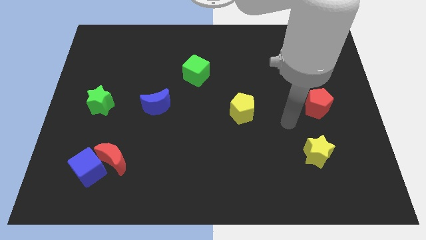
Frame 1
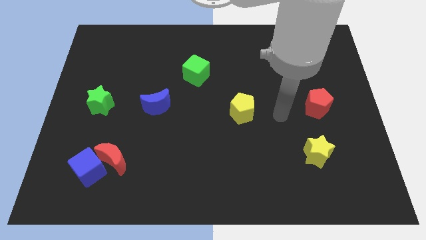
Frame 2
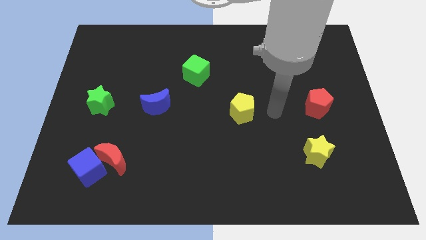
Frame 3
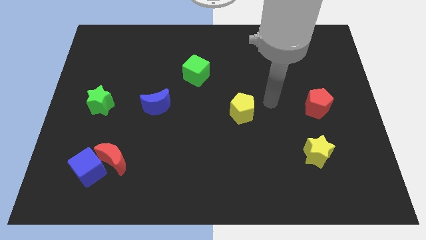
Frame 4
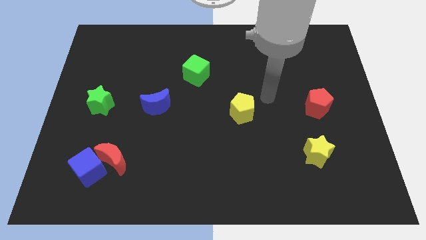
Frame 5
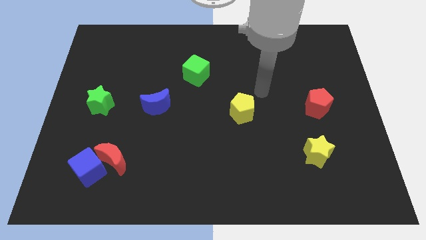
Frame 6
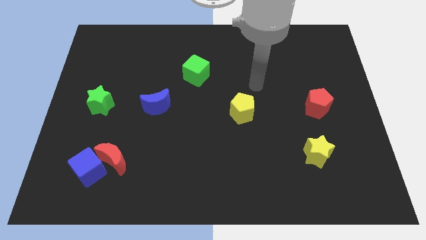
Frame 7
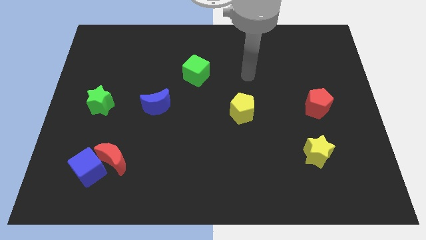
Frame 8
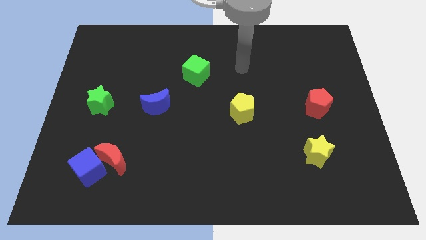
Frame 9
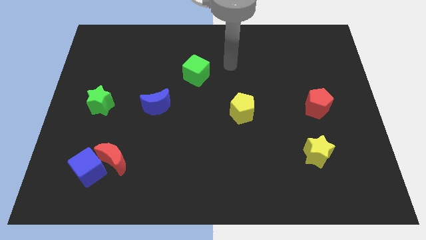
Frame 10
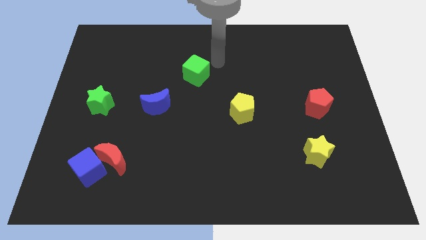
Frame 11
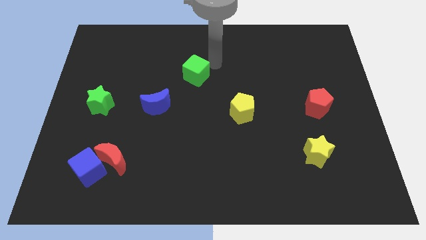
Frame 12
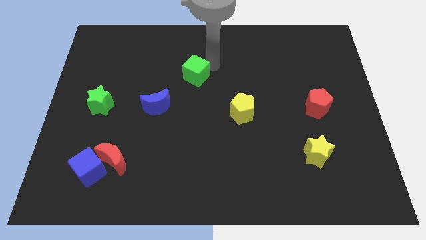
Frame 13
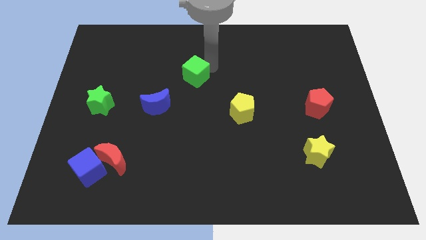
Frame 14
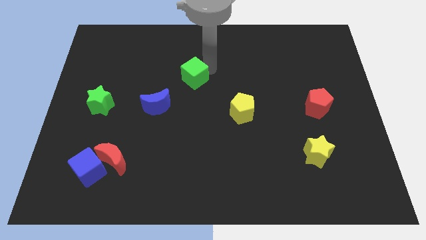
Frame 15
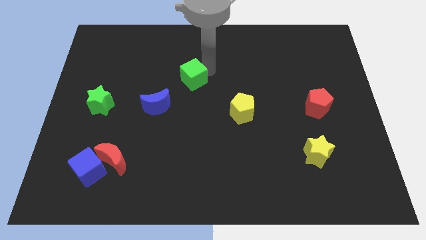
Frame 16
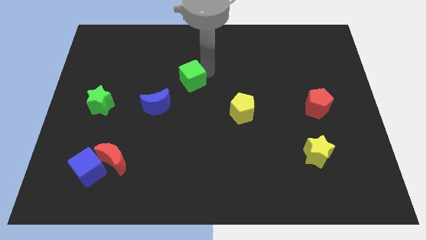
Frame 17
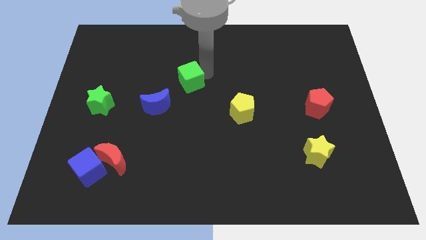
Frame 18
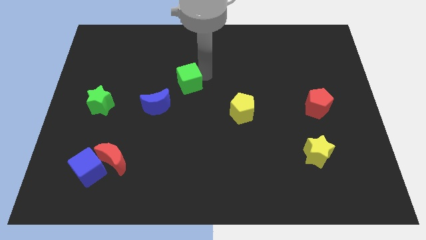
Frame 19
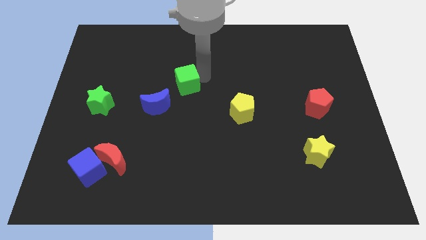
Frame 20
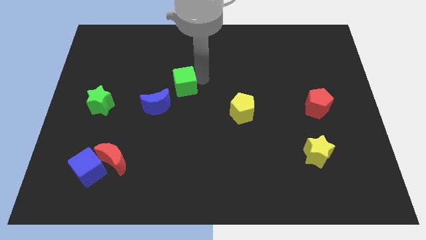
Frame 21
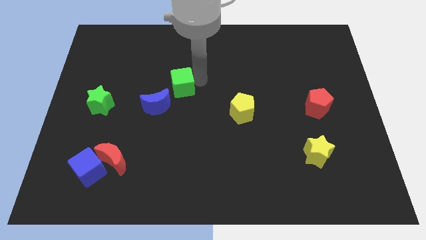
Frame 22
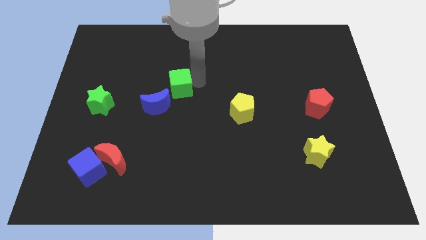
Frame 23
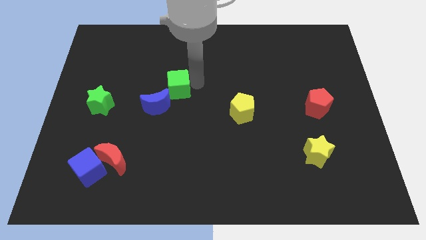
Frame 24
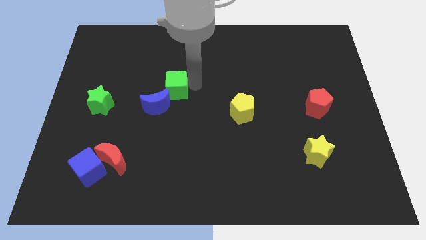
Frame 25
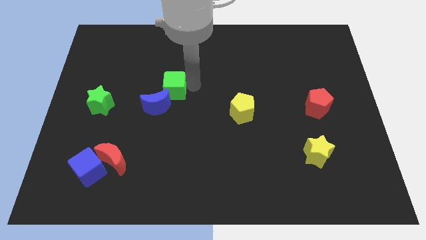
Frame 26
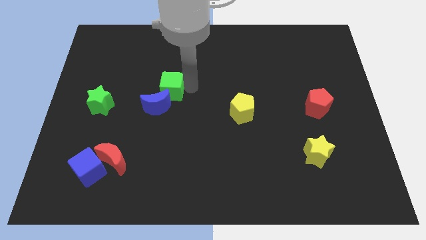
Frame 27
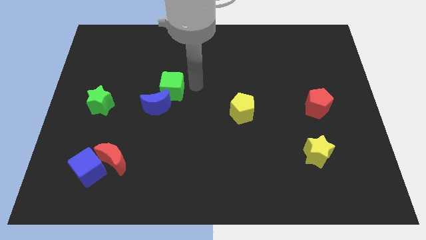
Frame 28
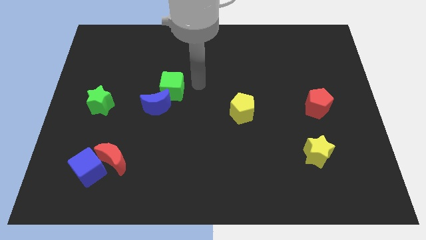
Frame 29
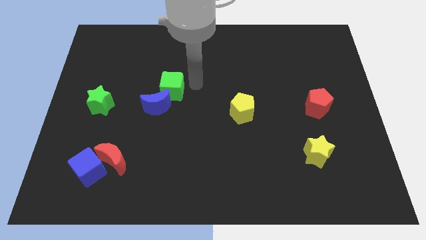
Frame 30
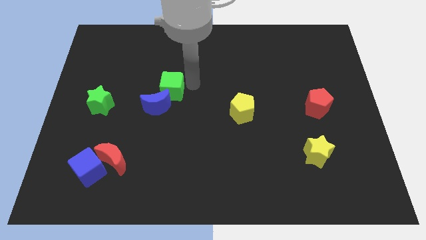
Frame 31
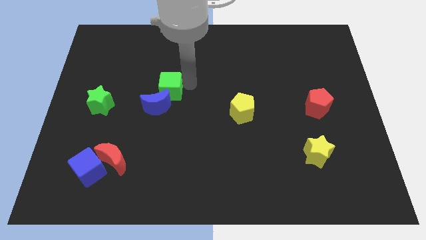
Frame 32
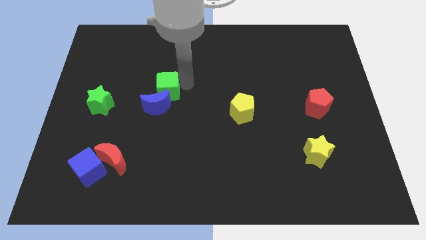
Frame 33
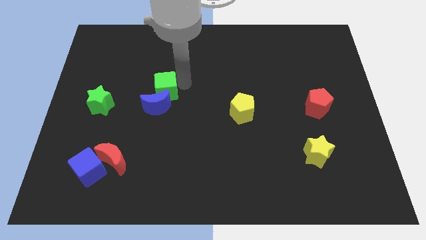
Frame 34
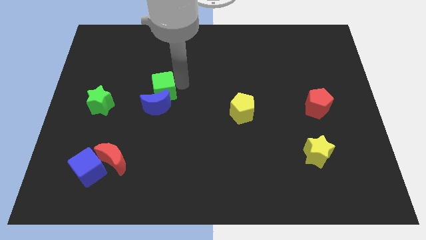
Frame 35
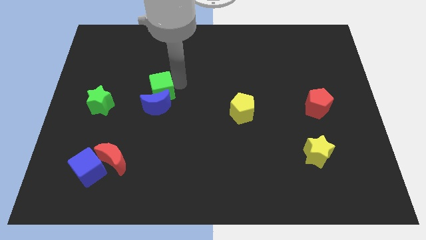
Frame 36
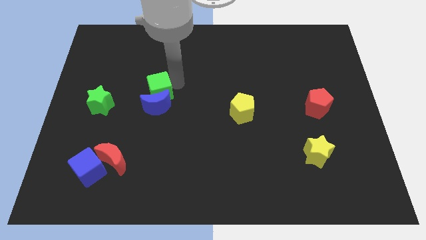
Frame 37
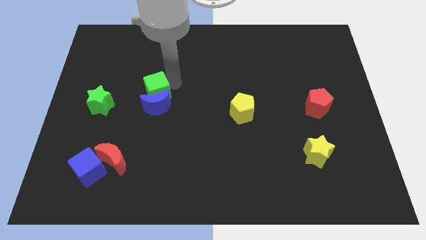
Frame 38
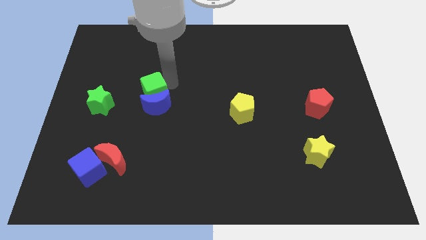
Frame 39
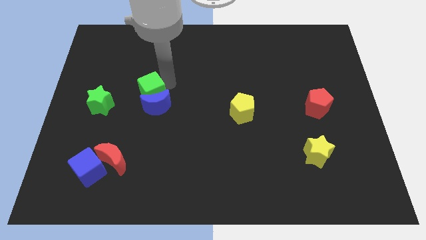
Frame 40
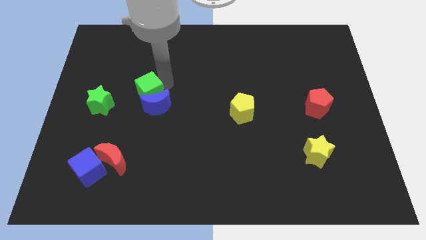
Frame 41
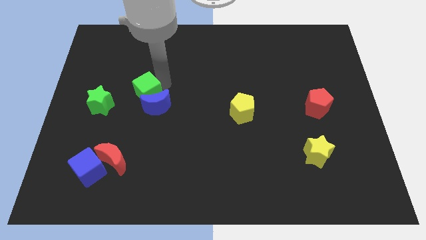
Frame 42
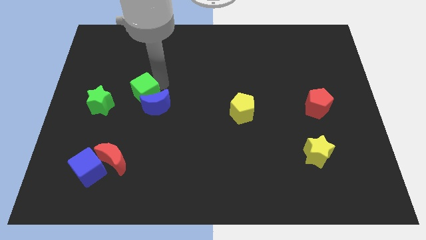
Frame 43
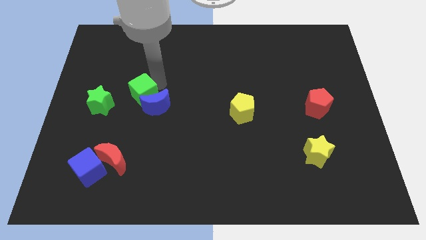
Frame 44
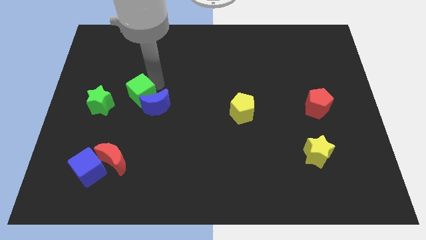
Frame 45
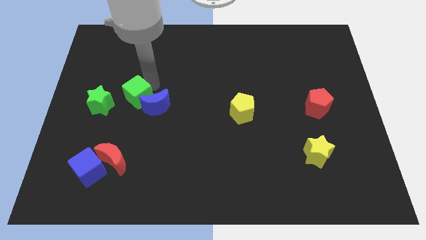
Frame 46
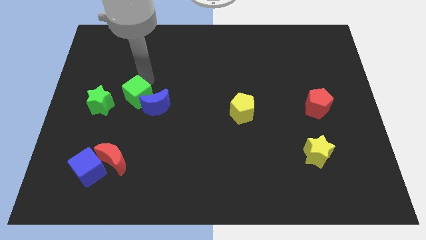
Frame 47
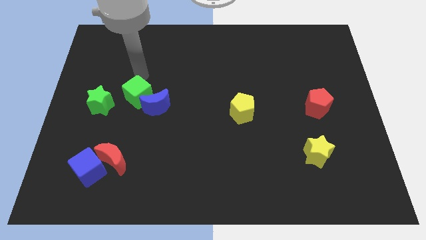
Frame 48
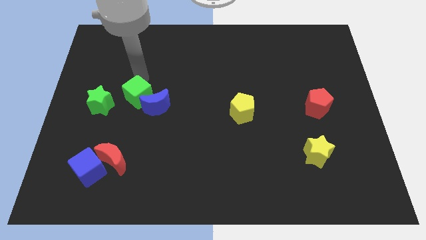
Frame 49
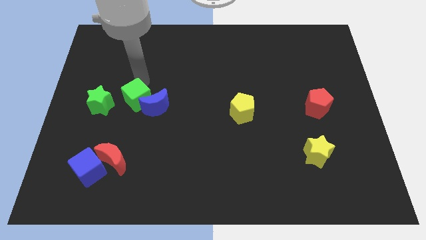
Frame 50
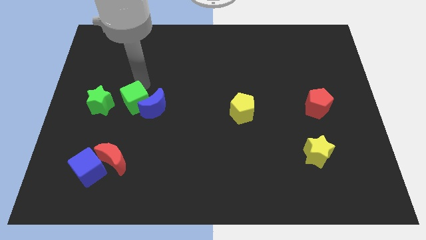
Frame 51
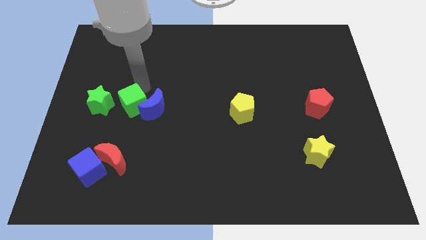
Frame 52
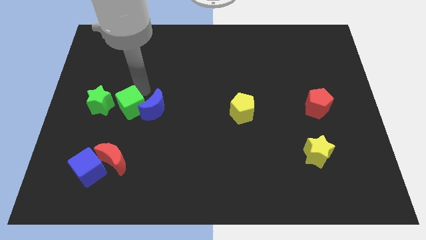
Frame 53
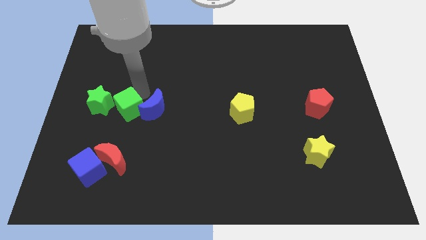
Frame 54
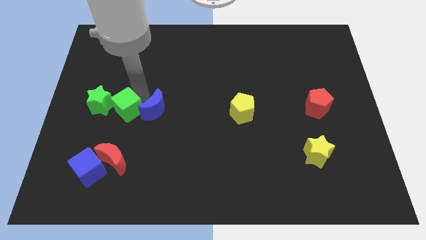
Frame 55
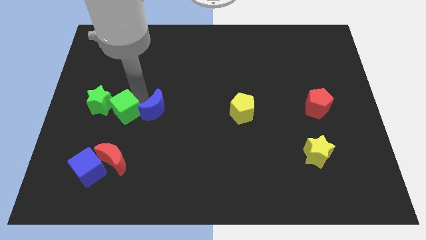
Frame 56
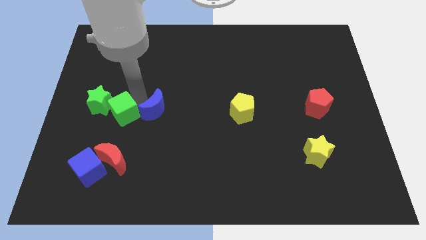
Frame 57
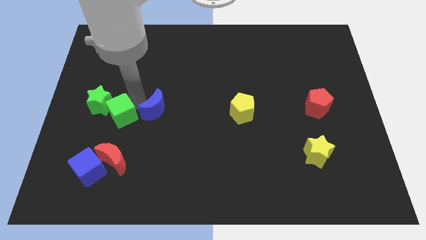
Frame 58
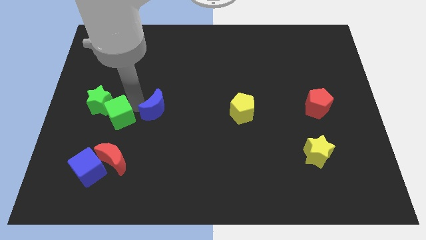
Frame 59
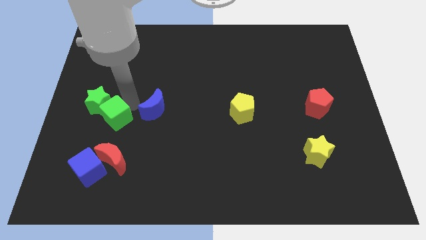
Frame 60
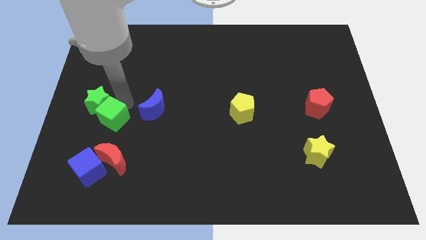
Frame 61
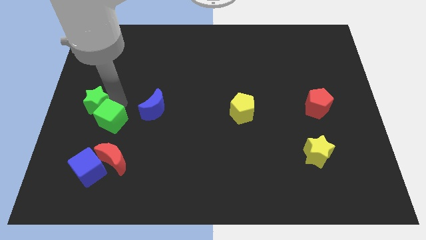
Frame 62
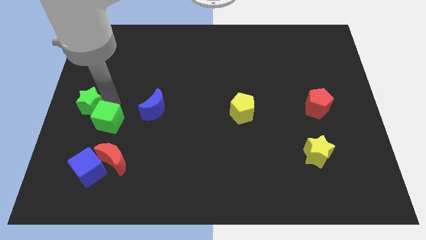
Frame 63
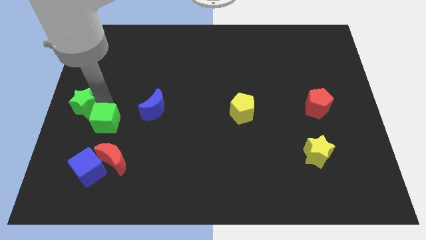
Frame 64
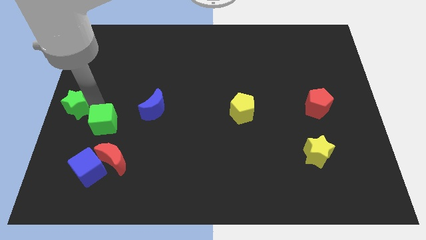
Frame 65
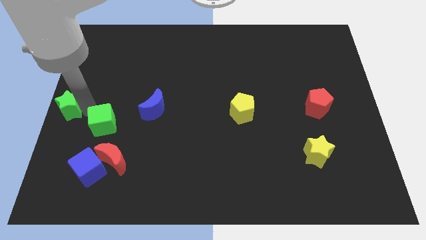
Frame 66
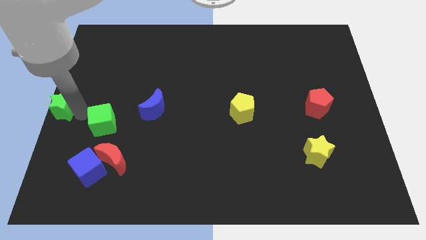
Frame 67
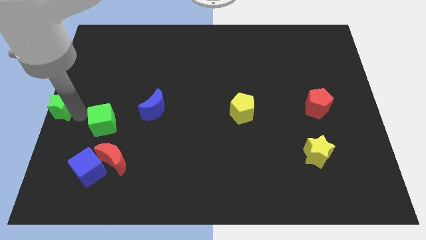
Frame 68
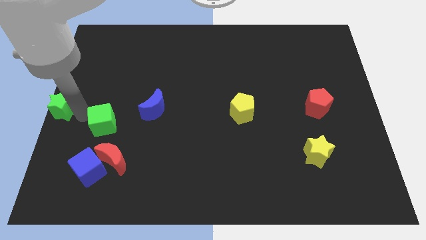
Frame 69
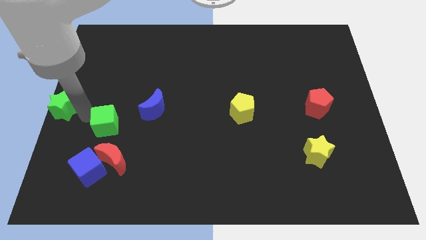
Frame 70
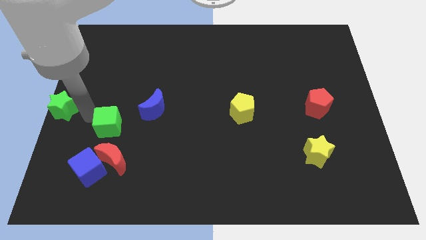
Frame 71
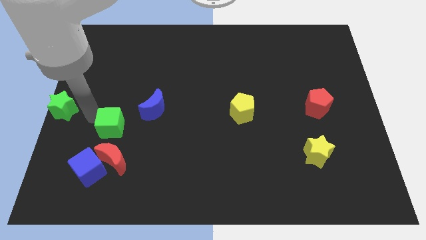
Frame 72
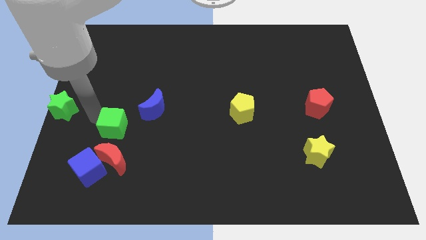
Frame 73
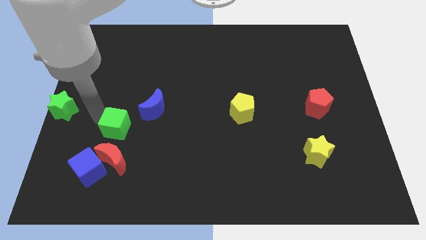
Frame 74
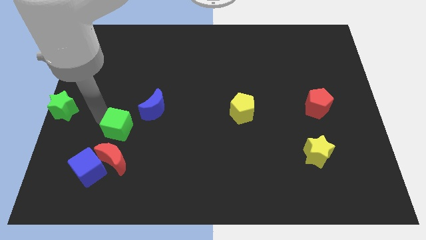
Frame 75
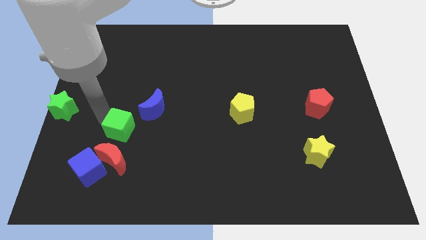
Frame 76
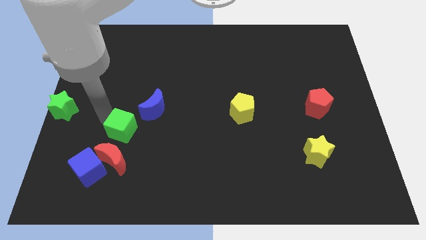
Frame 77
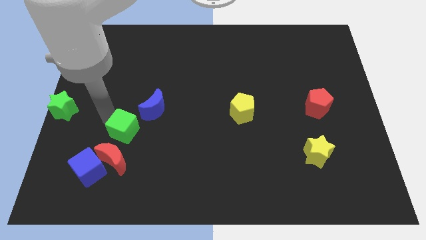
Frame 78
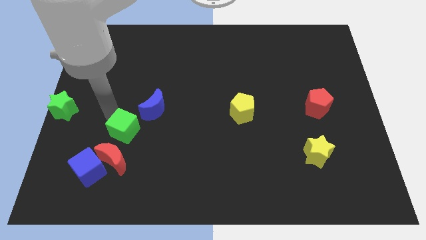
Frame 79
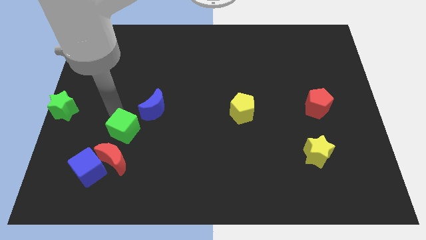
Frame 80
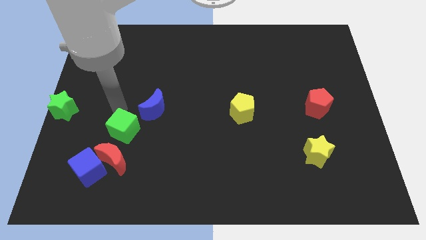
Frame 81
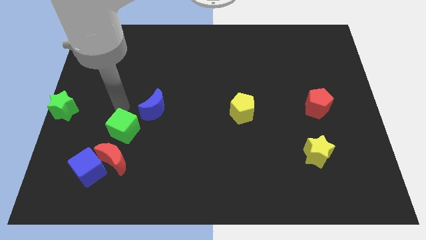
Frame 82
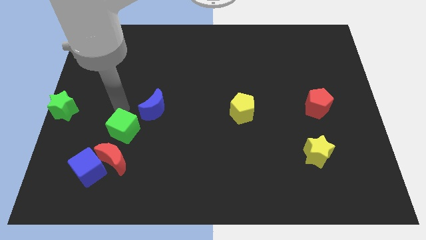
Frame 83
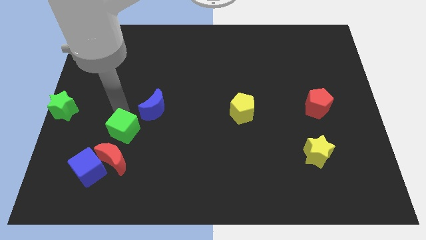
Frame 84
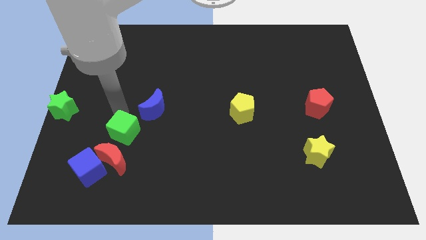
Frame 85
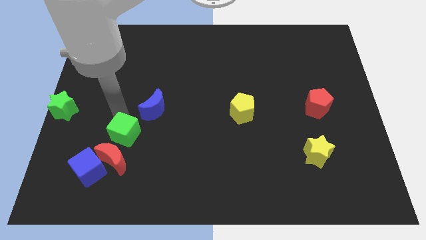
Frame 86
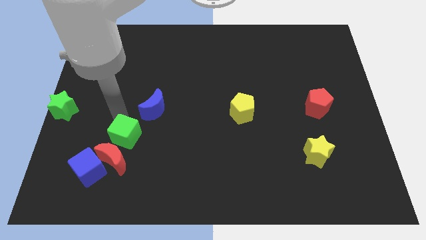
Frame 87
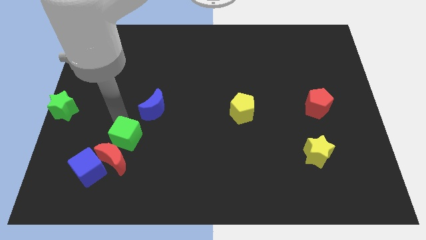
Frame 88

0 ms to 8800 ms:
put the green cube next to the red moon
